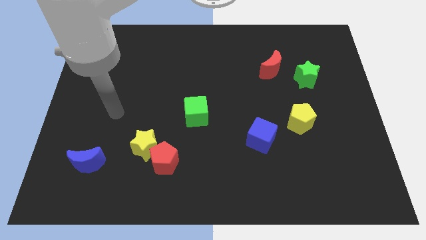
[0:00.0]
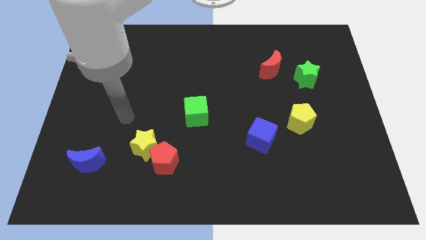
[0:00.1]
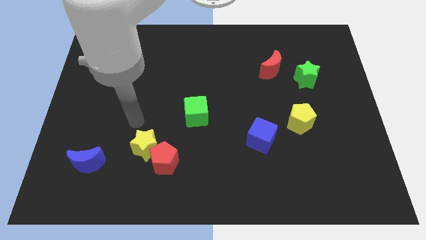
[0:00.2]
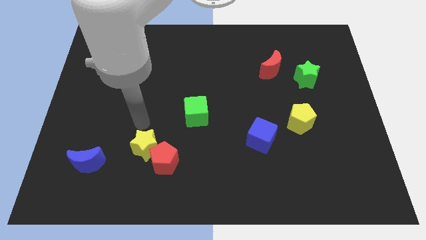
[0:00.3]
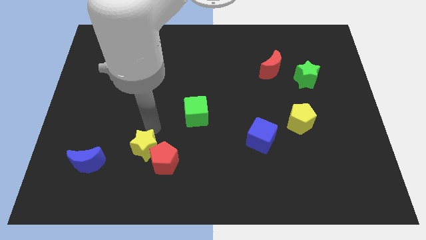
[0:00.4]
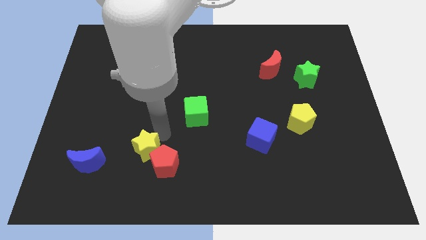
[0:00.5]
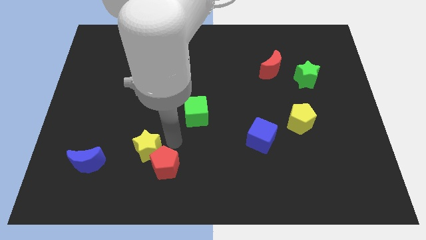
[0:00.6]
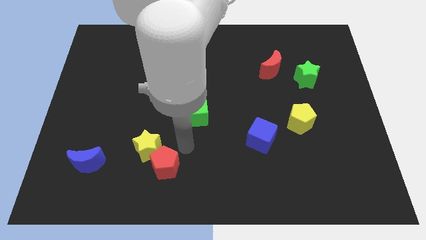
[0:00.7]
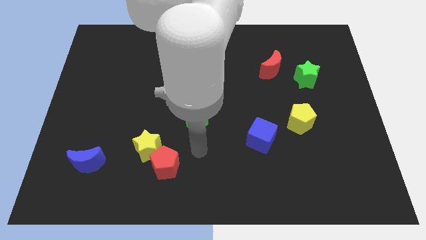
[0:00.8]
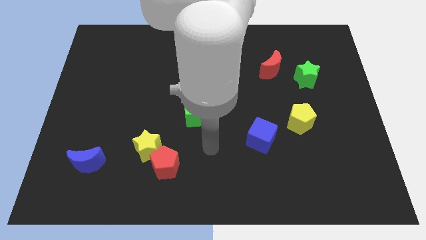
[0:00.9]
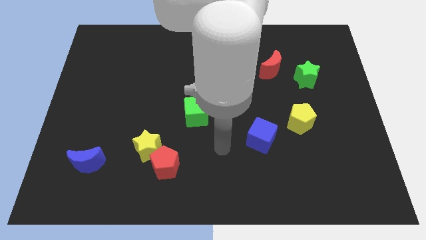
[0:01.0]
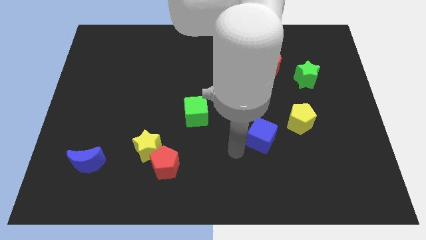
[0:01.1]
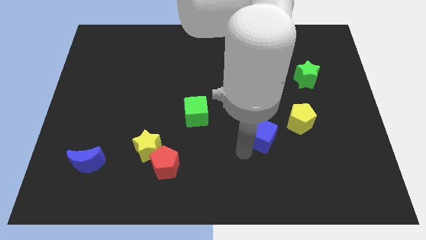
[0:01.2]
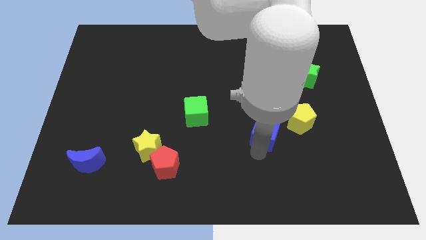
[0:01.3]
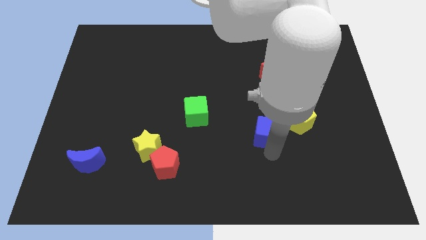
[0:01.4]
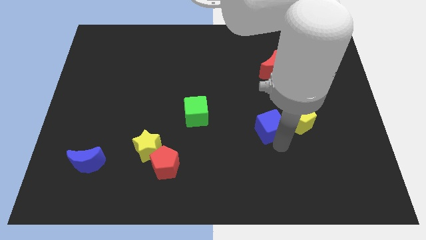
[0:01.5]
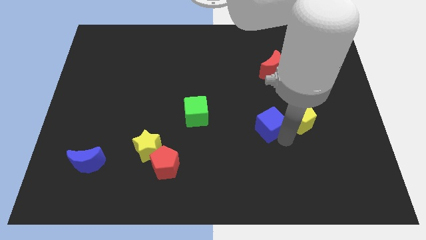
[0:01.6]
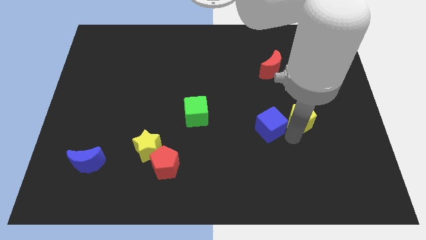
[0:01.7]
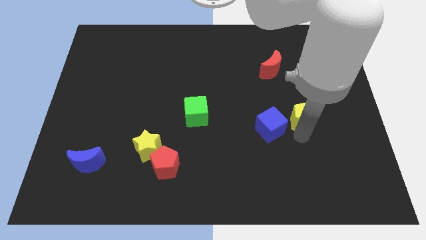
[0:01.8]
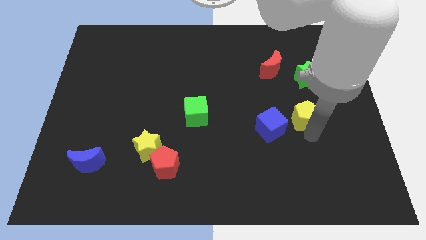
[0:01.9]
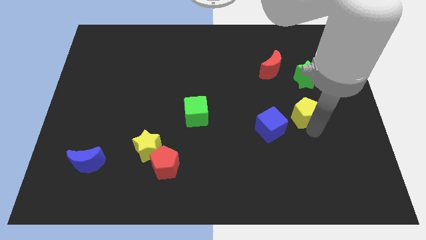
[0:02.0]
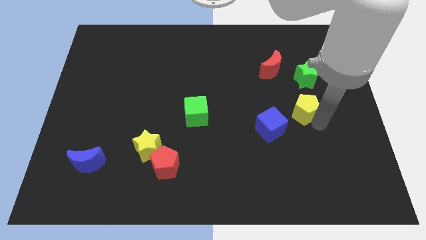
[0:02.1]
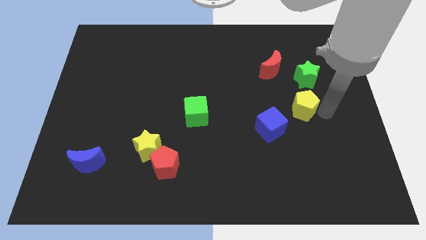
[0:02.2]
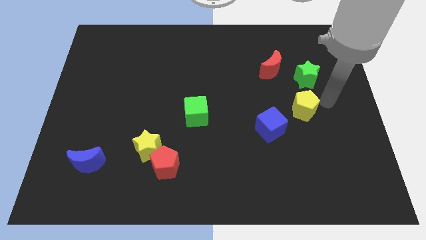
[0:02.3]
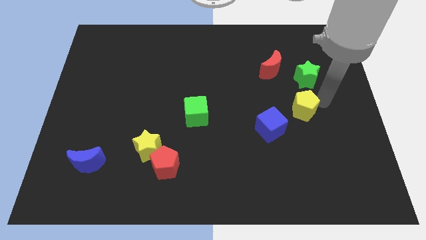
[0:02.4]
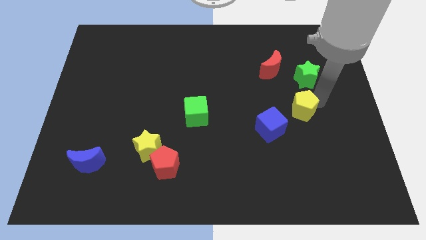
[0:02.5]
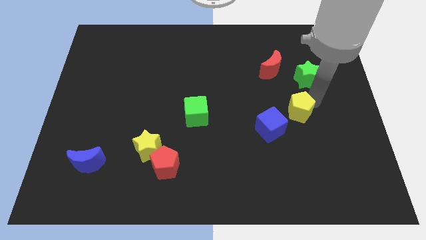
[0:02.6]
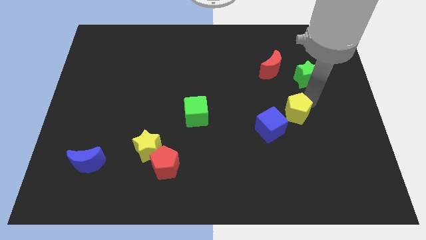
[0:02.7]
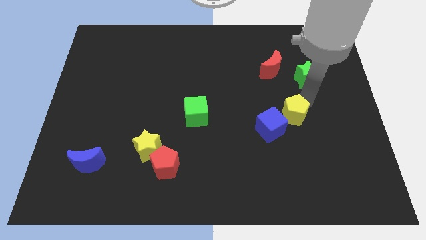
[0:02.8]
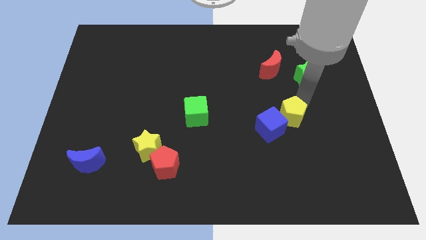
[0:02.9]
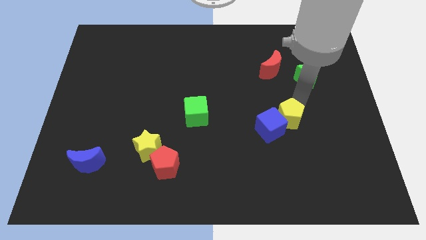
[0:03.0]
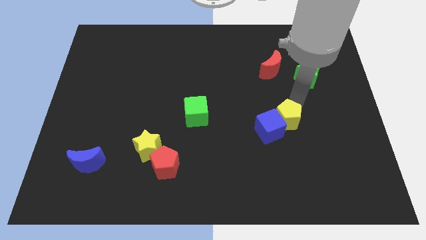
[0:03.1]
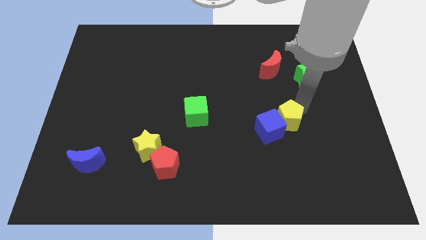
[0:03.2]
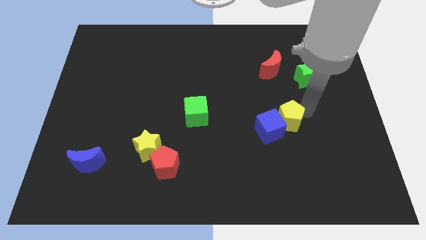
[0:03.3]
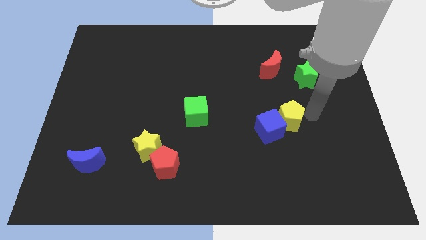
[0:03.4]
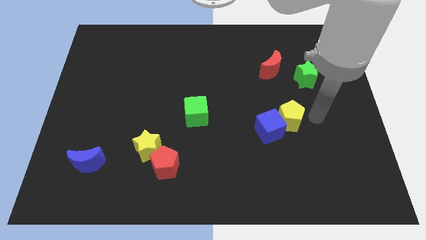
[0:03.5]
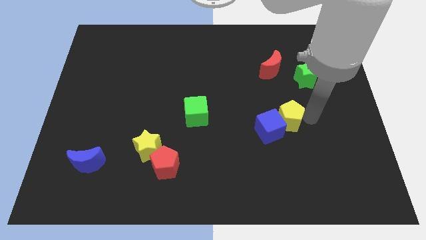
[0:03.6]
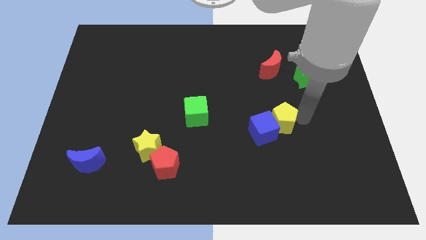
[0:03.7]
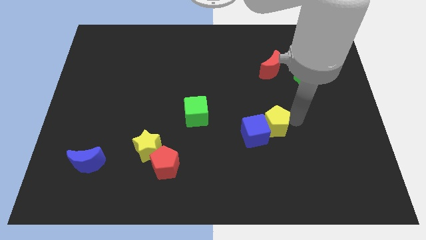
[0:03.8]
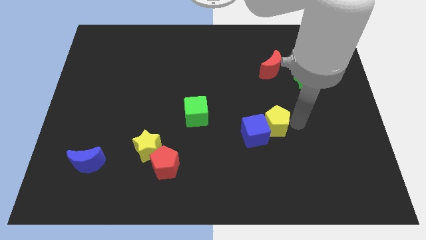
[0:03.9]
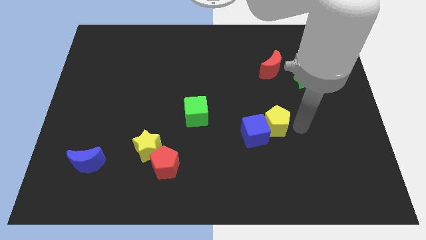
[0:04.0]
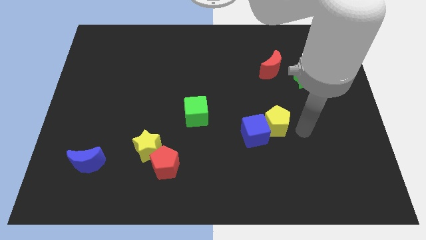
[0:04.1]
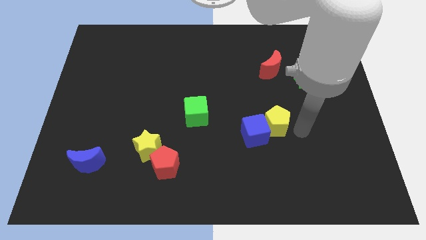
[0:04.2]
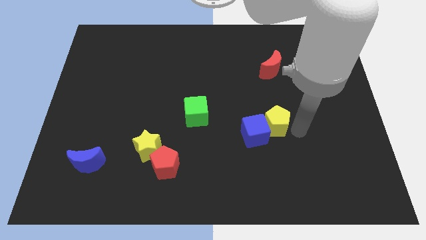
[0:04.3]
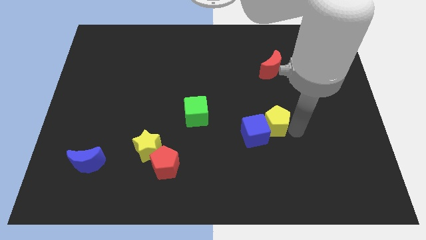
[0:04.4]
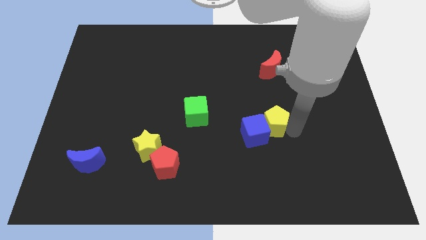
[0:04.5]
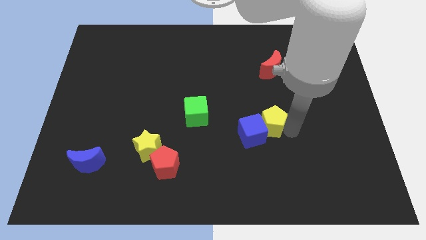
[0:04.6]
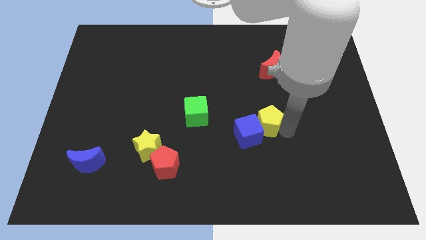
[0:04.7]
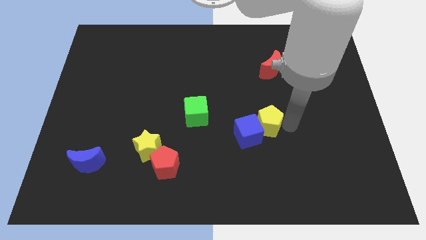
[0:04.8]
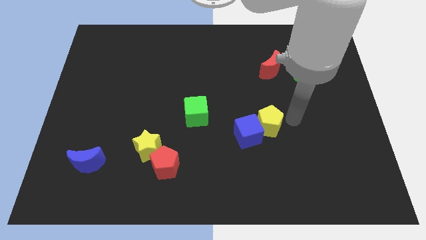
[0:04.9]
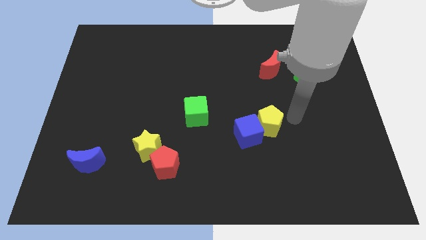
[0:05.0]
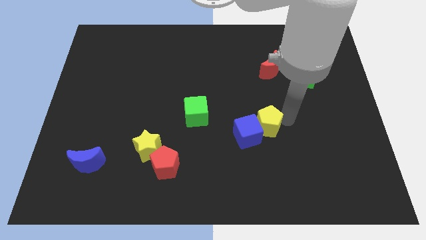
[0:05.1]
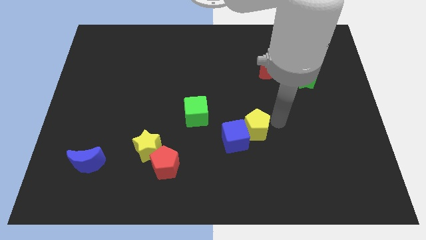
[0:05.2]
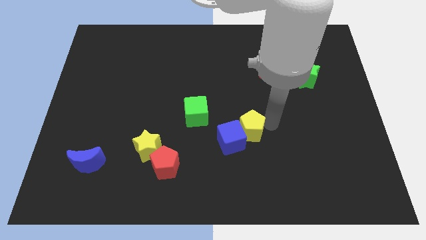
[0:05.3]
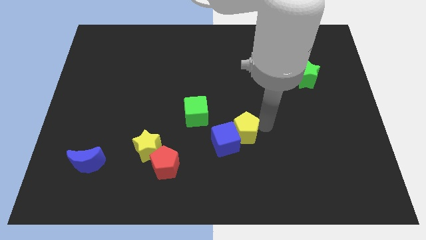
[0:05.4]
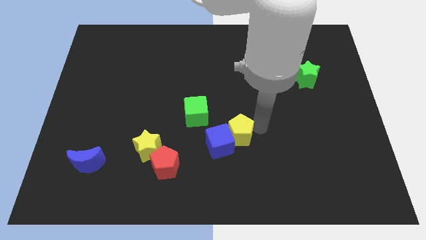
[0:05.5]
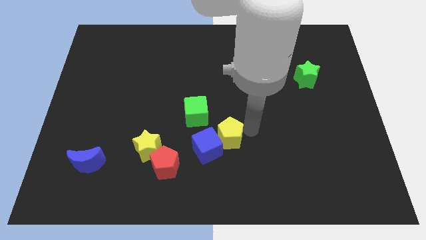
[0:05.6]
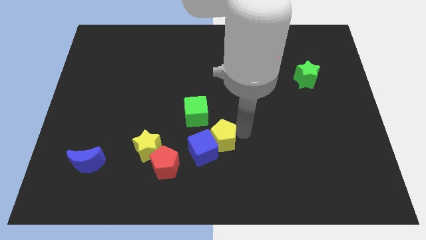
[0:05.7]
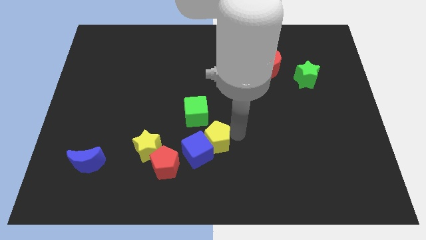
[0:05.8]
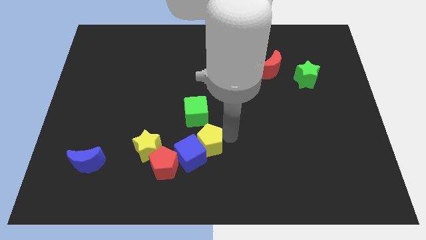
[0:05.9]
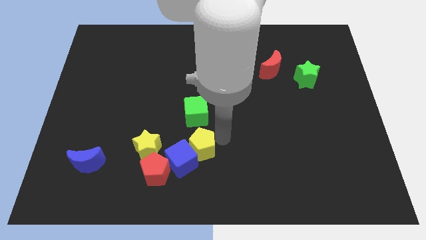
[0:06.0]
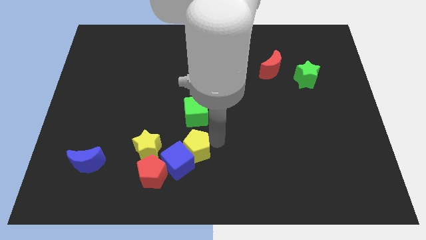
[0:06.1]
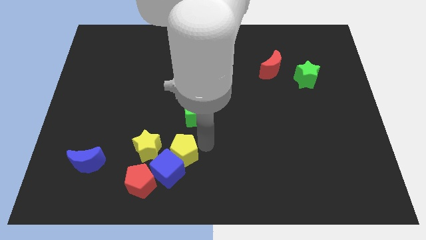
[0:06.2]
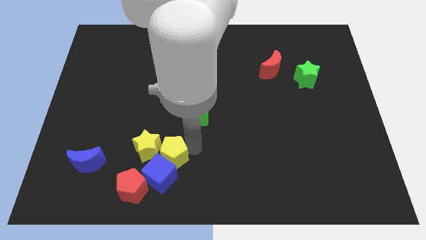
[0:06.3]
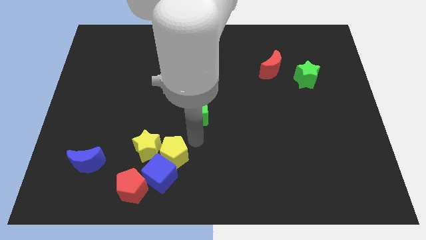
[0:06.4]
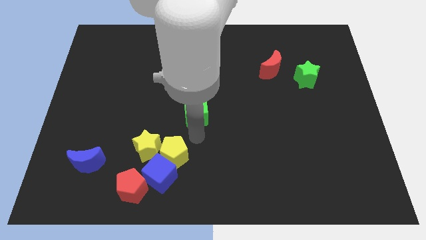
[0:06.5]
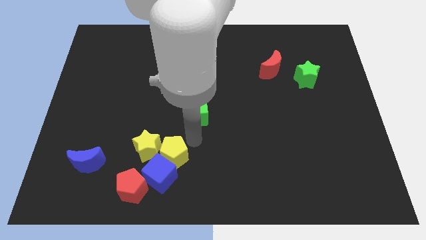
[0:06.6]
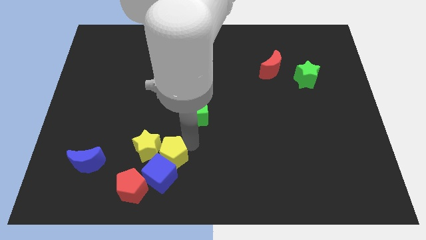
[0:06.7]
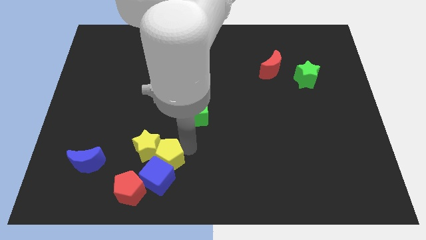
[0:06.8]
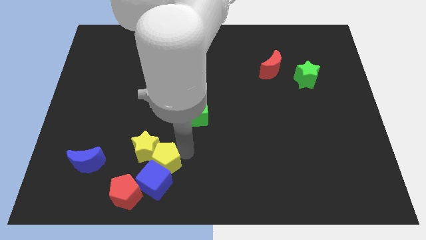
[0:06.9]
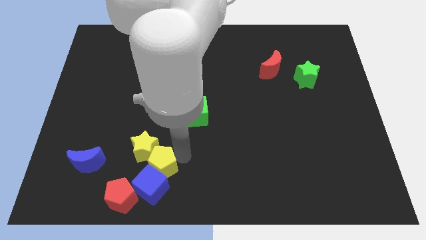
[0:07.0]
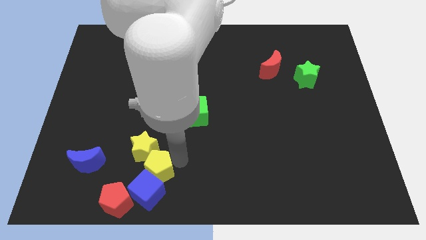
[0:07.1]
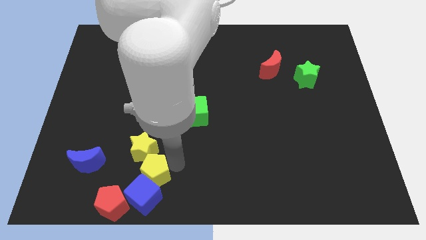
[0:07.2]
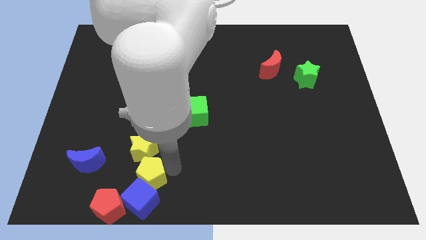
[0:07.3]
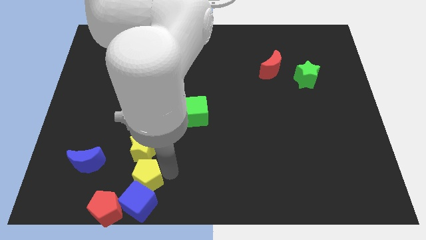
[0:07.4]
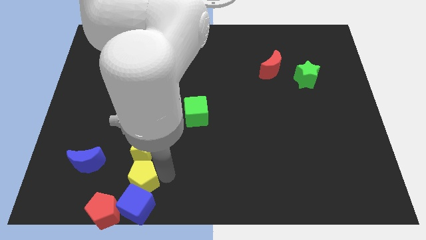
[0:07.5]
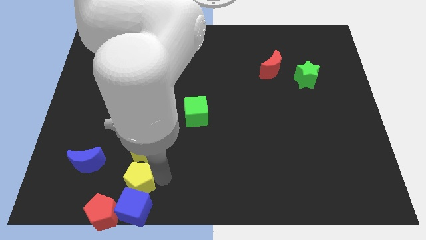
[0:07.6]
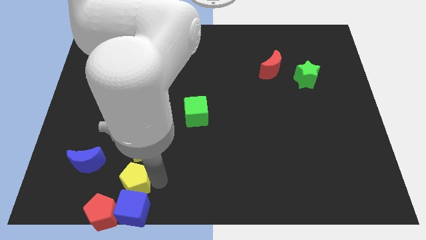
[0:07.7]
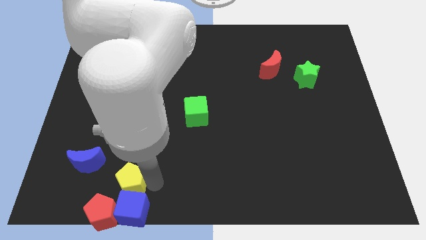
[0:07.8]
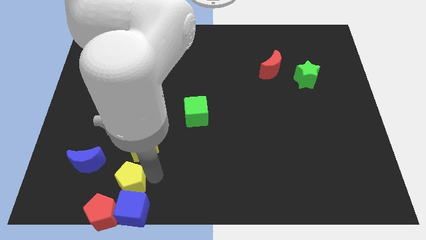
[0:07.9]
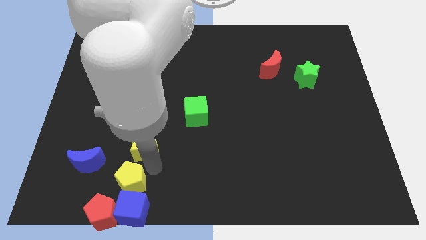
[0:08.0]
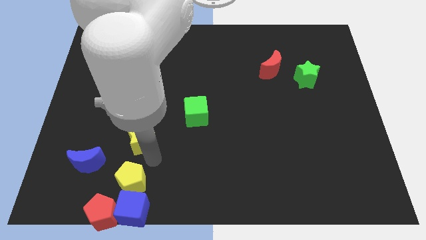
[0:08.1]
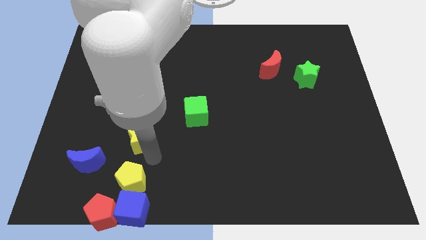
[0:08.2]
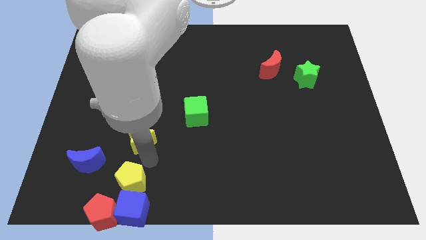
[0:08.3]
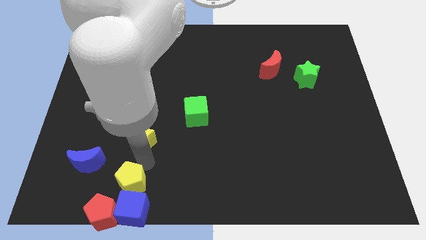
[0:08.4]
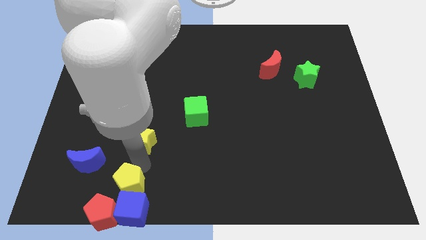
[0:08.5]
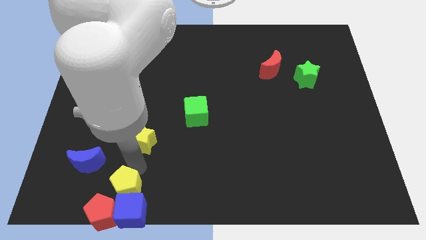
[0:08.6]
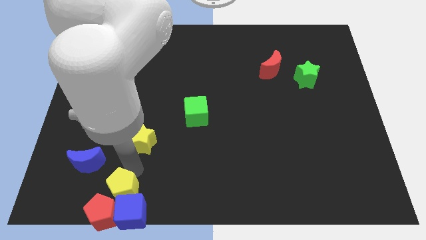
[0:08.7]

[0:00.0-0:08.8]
move the yellow pentagon close to the red pentagon
